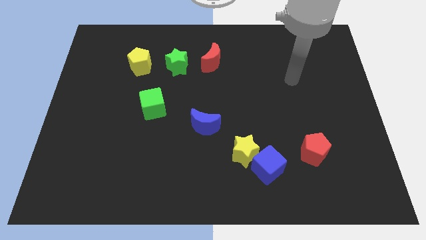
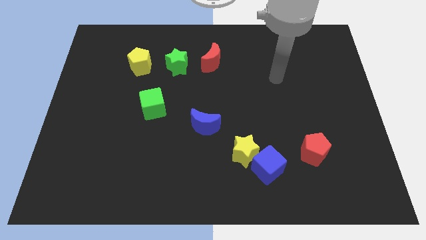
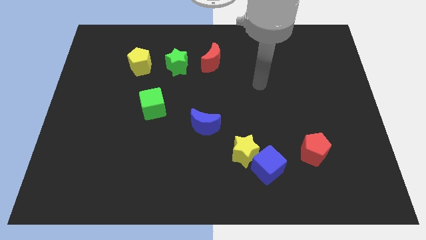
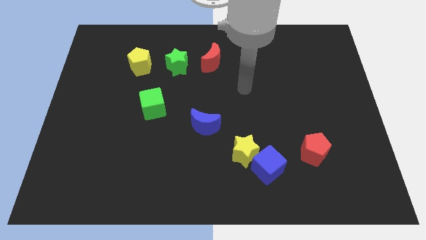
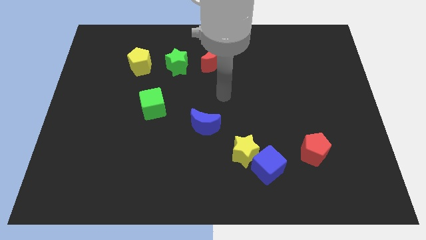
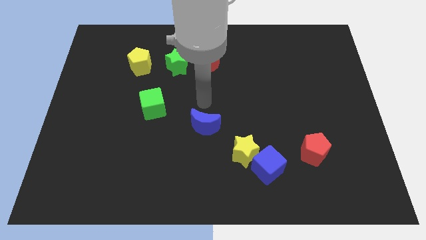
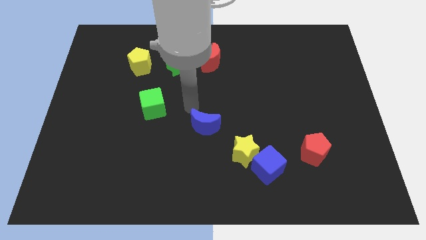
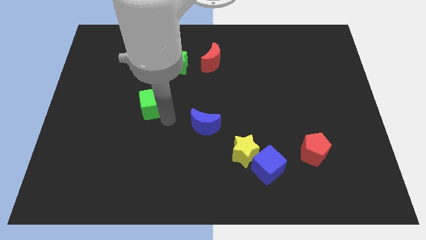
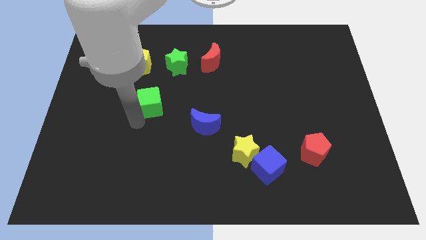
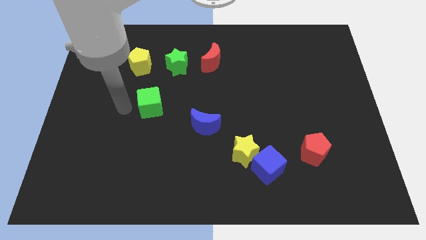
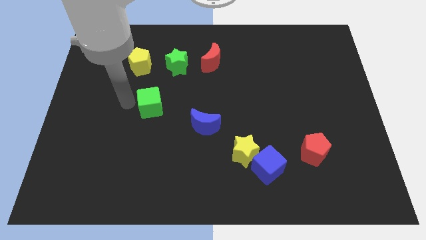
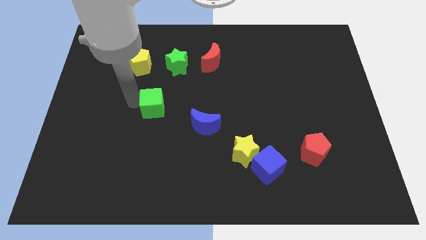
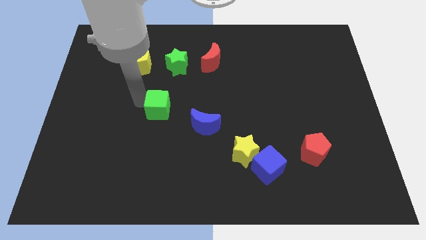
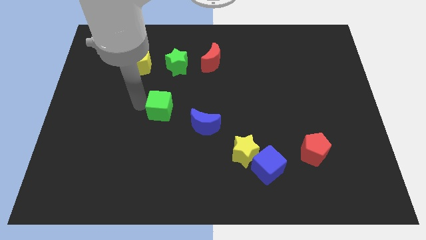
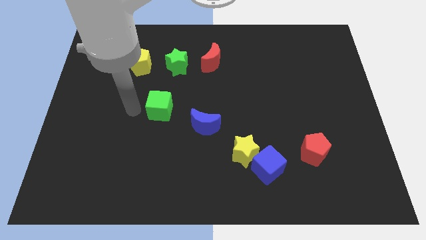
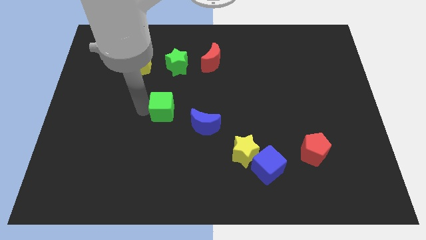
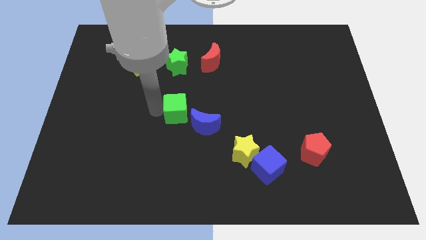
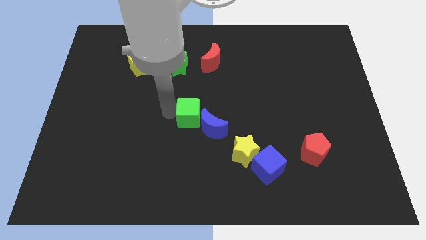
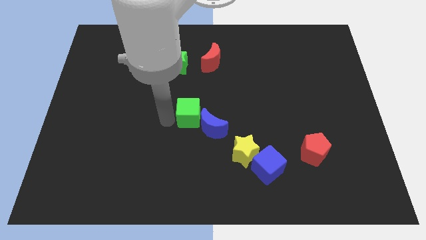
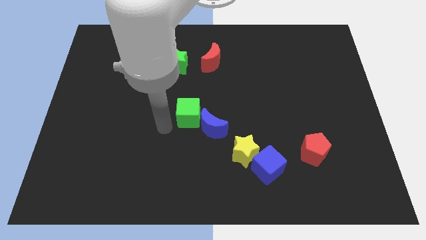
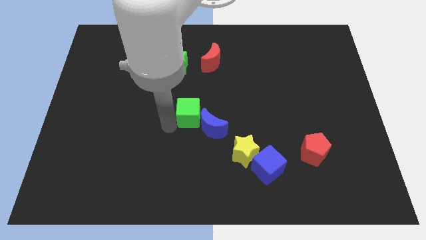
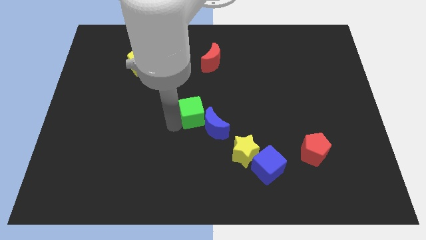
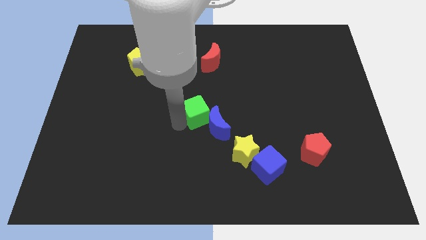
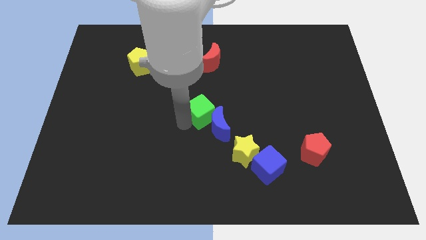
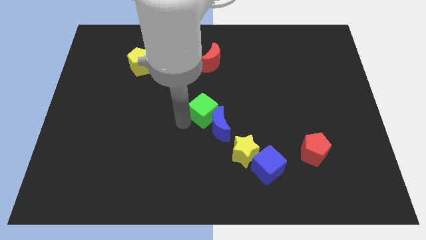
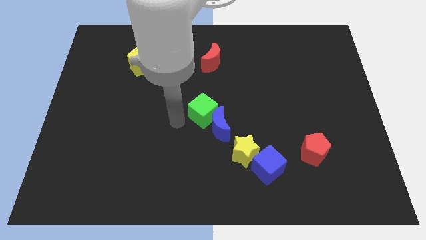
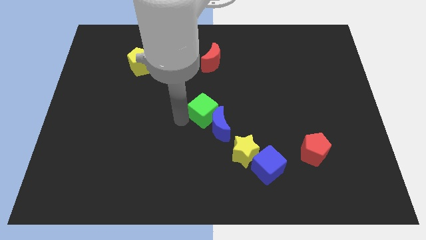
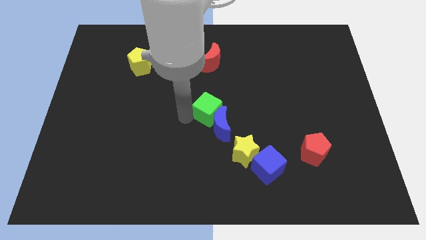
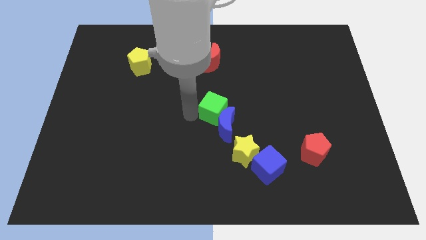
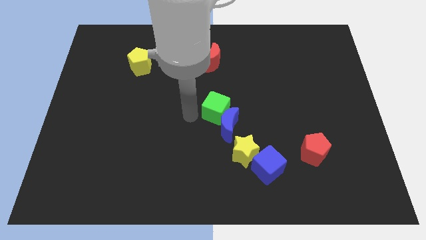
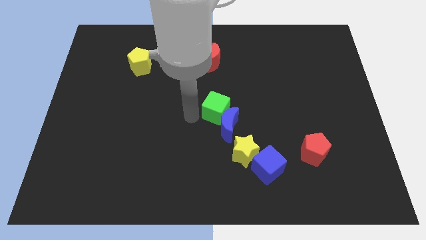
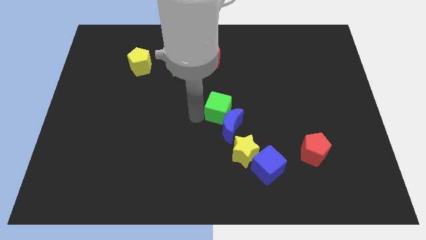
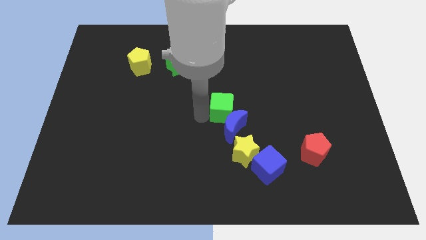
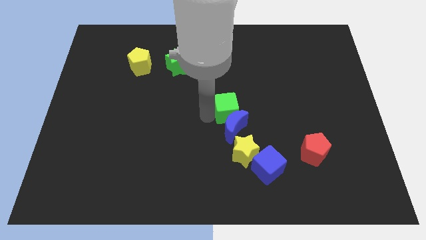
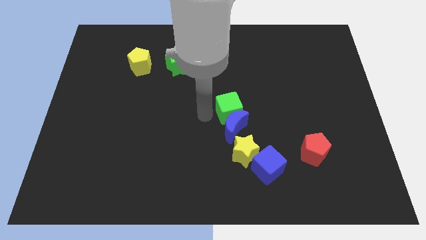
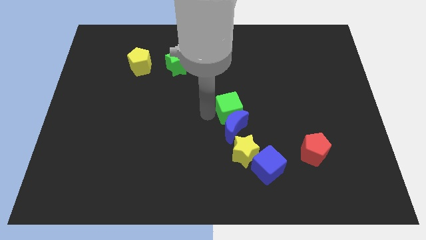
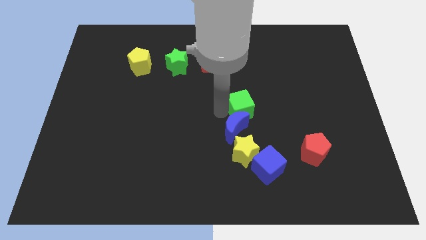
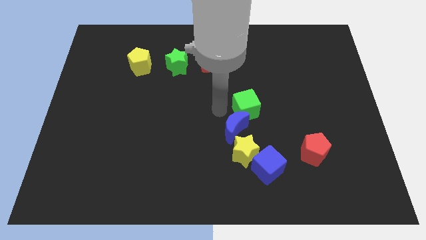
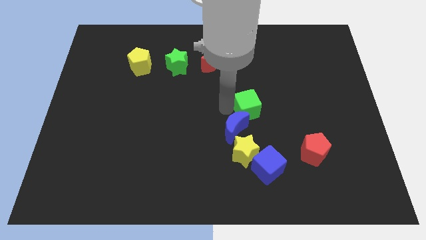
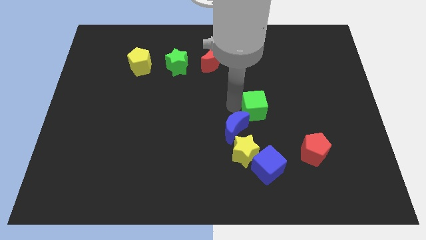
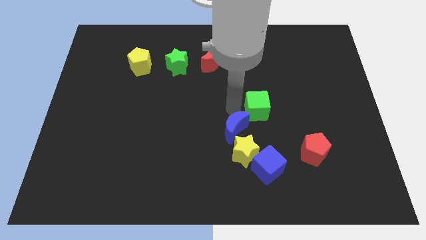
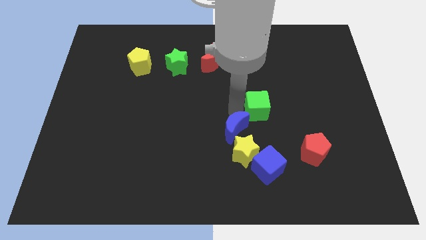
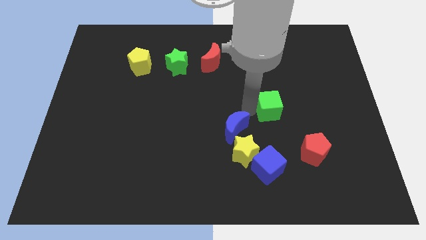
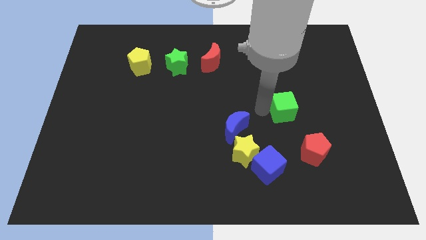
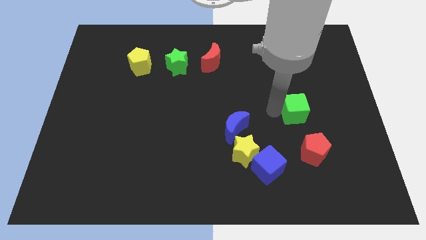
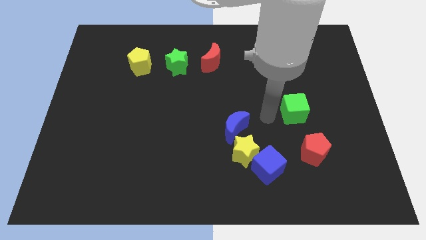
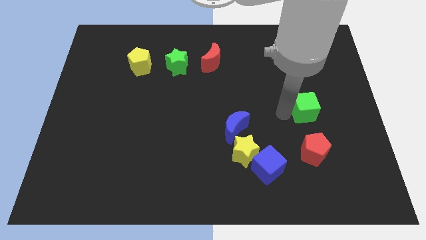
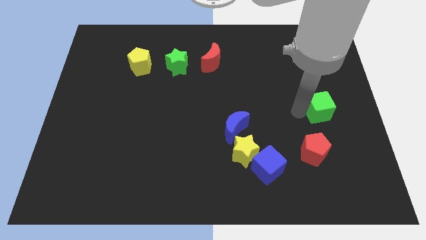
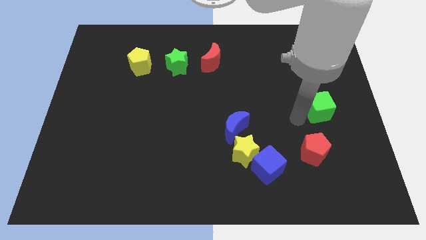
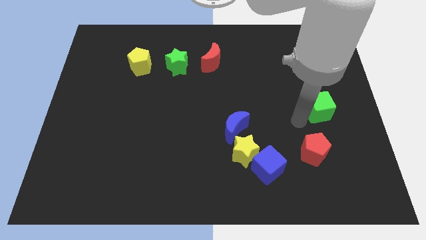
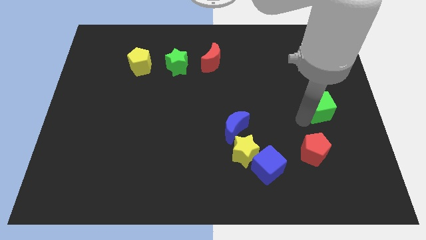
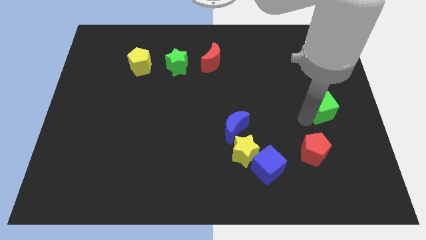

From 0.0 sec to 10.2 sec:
push the green cube to the right side

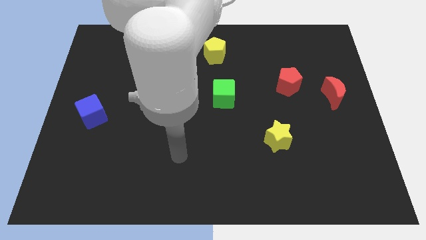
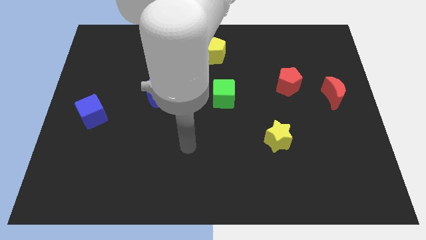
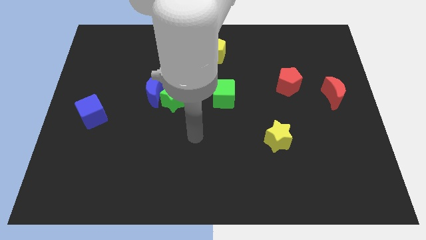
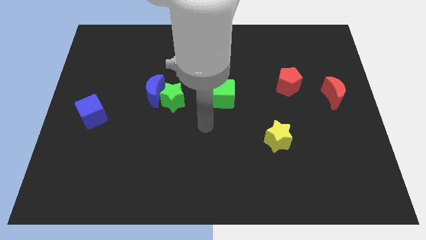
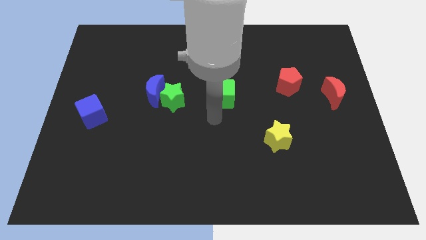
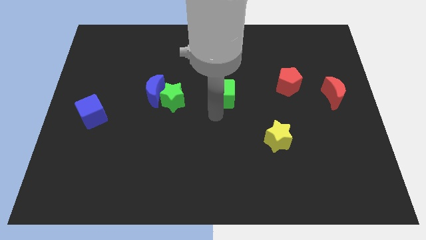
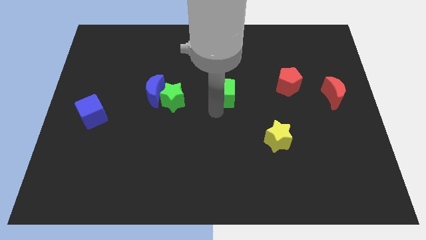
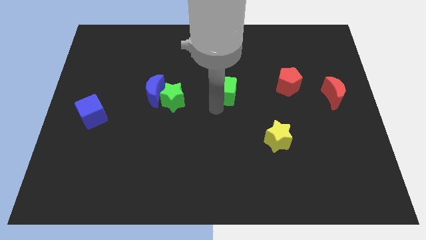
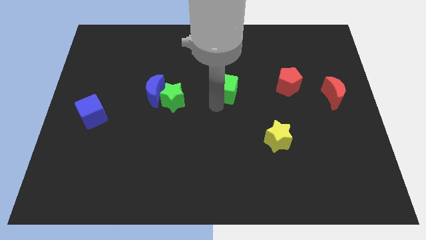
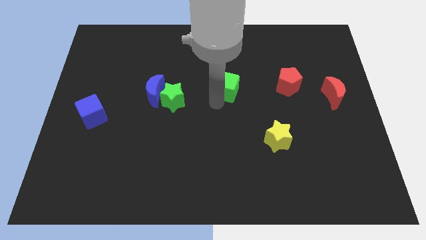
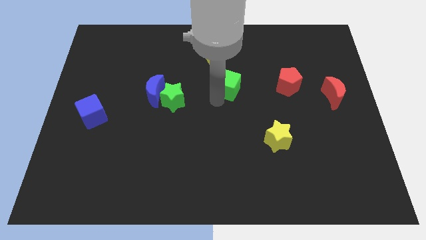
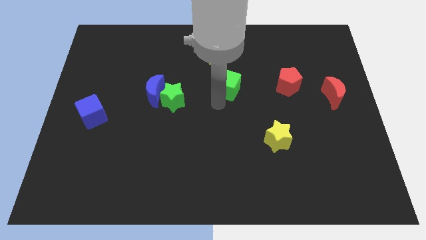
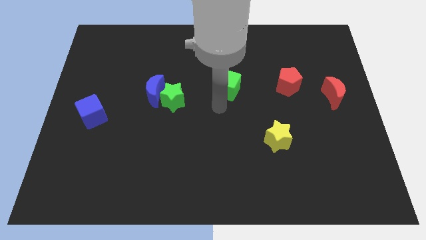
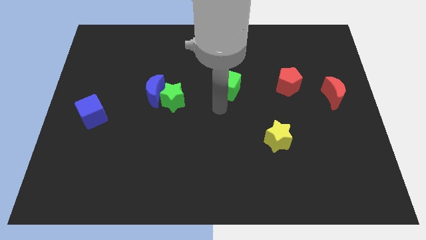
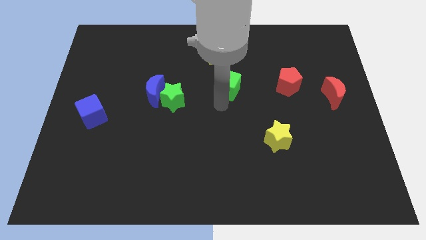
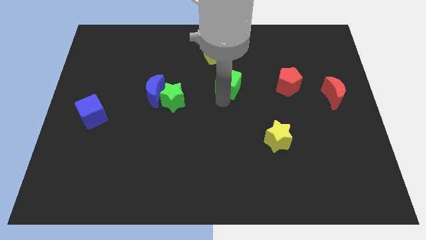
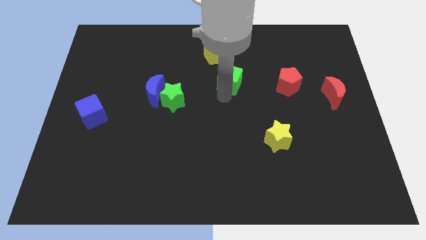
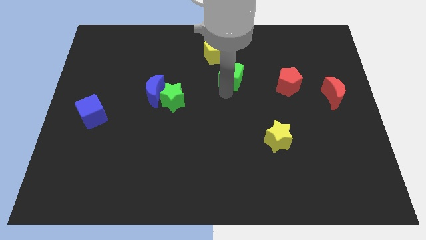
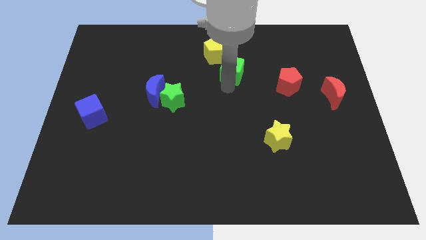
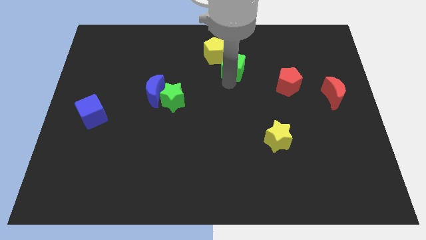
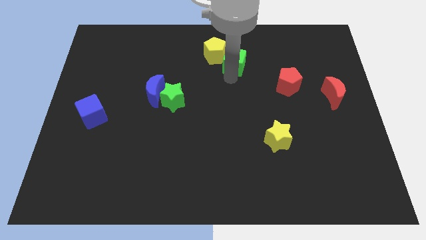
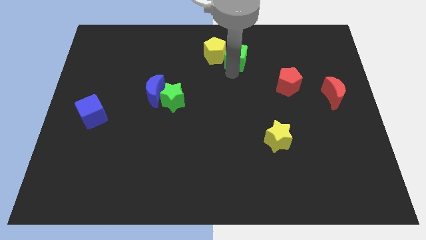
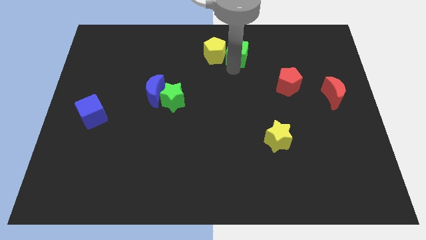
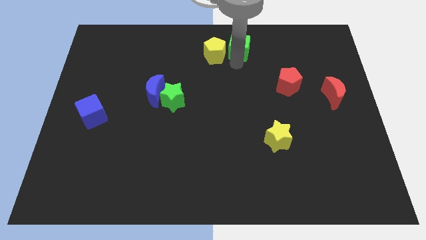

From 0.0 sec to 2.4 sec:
move the green cube to the towards your base
